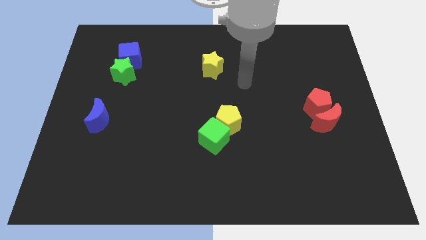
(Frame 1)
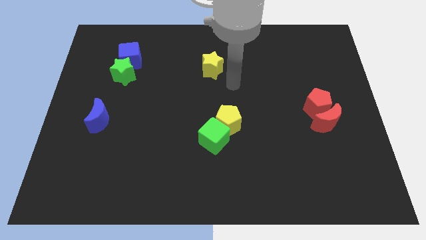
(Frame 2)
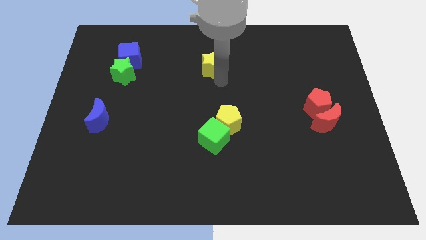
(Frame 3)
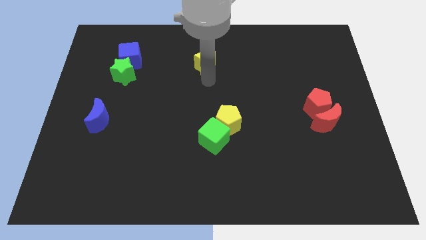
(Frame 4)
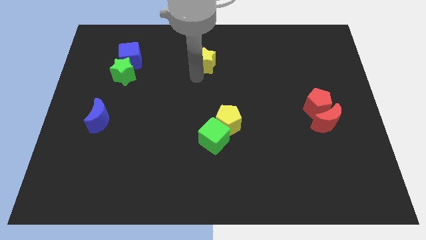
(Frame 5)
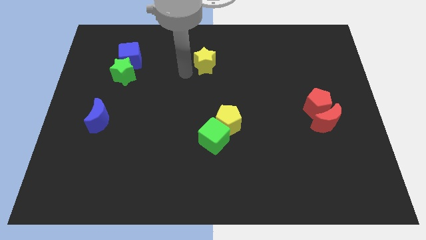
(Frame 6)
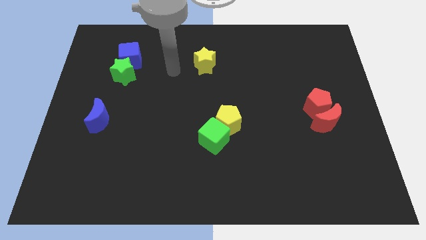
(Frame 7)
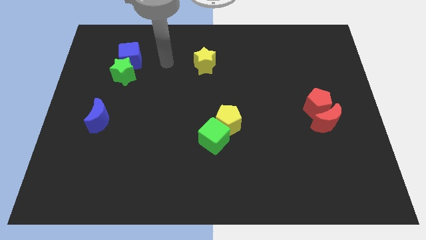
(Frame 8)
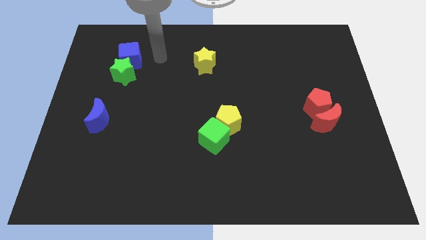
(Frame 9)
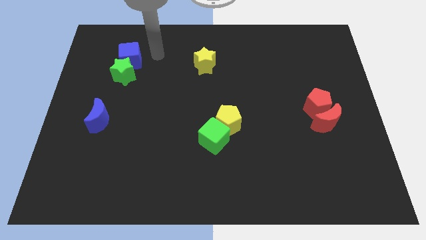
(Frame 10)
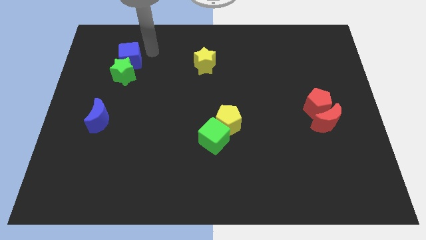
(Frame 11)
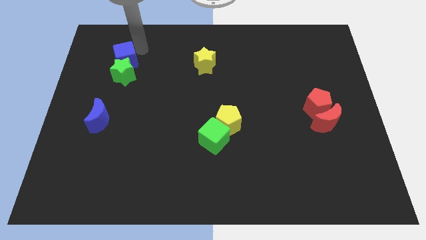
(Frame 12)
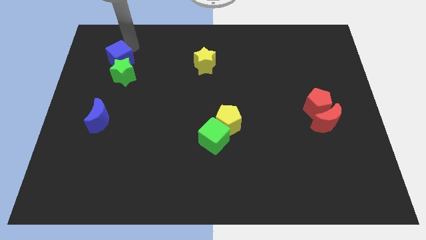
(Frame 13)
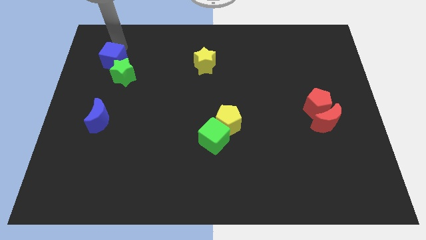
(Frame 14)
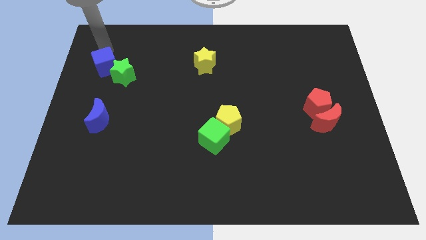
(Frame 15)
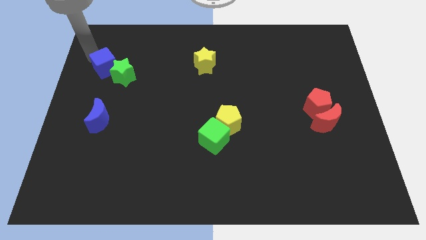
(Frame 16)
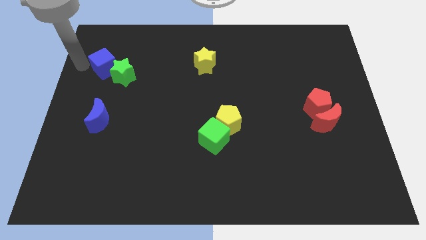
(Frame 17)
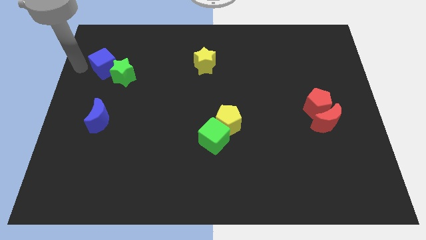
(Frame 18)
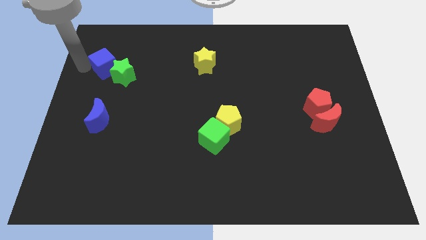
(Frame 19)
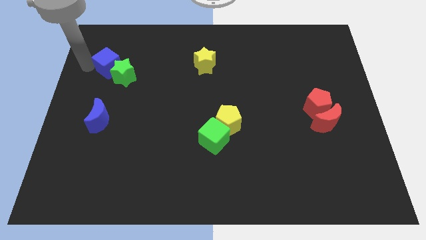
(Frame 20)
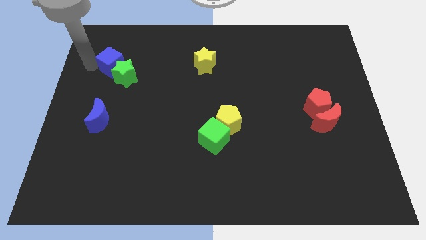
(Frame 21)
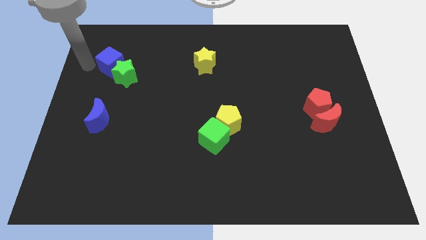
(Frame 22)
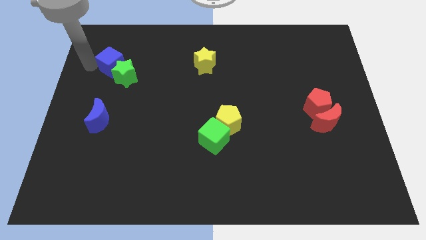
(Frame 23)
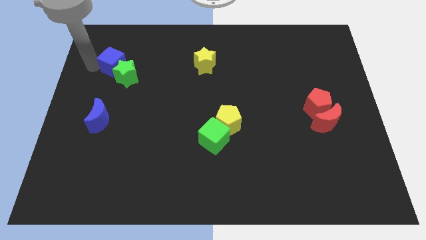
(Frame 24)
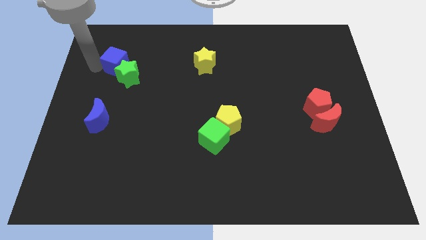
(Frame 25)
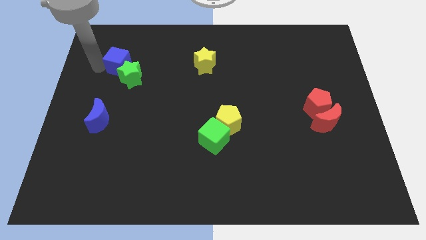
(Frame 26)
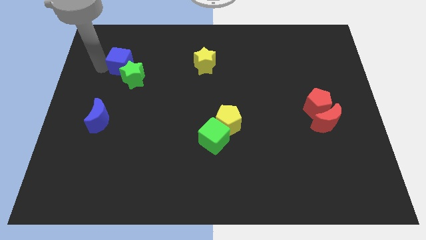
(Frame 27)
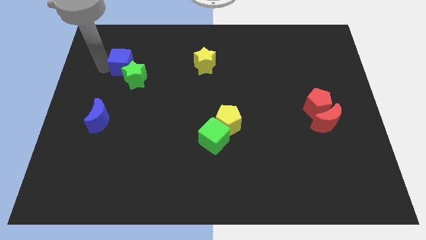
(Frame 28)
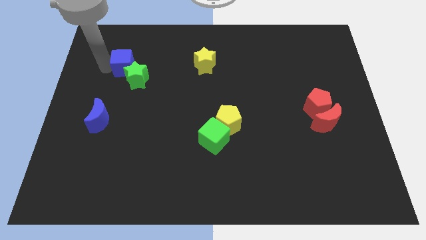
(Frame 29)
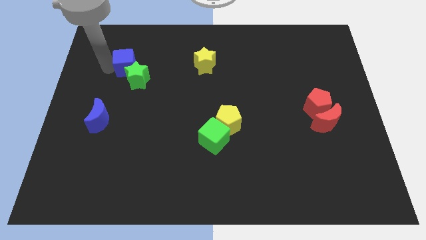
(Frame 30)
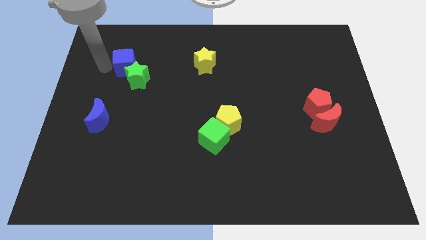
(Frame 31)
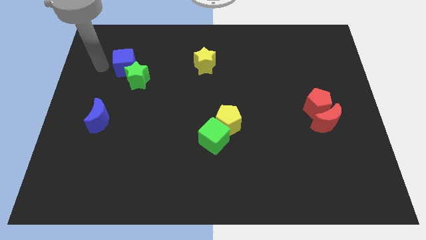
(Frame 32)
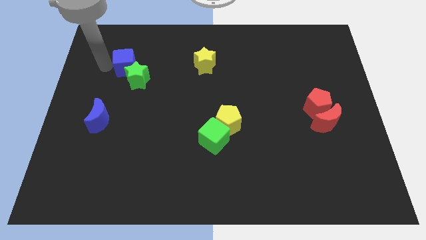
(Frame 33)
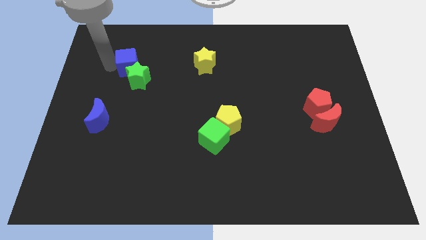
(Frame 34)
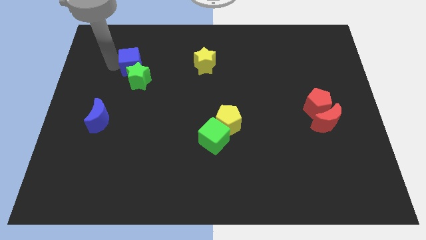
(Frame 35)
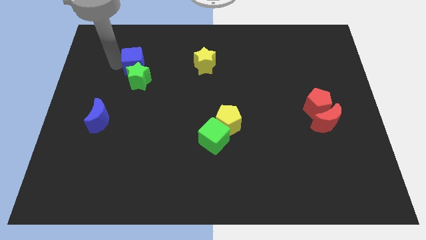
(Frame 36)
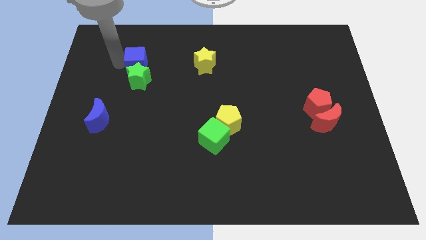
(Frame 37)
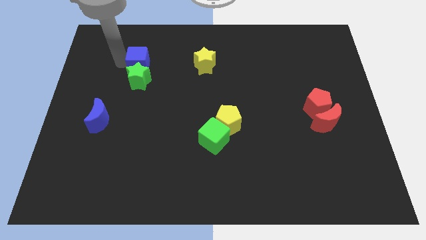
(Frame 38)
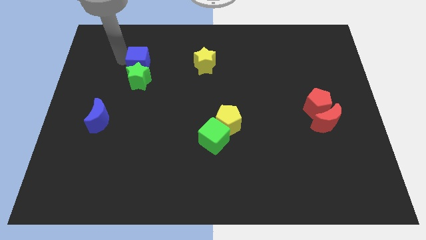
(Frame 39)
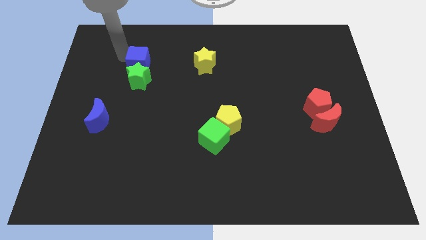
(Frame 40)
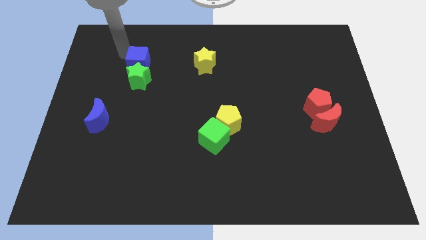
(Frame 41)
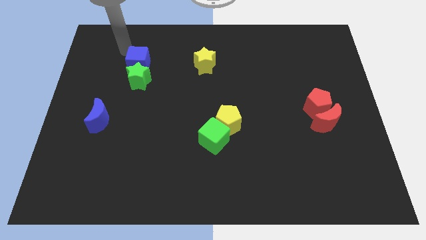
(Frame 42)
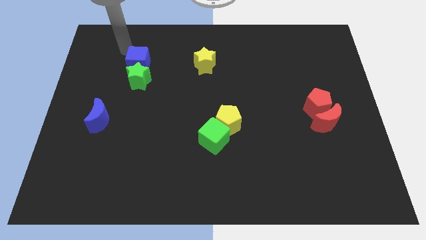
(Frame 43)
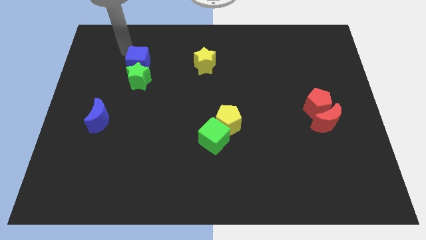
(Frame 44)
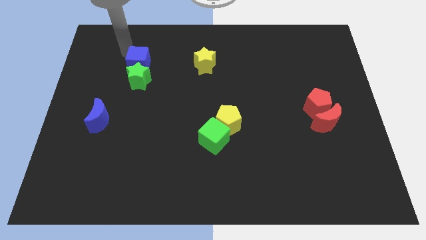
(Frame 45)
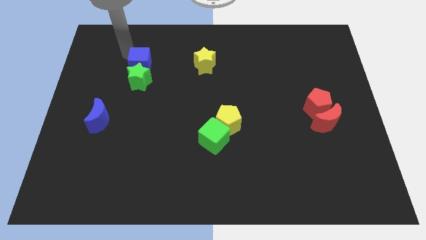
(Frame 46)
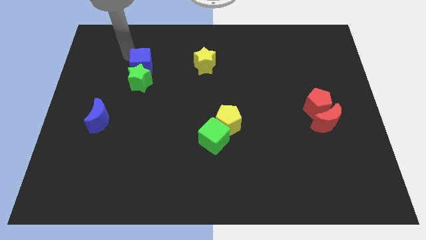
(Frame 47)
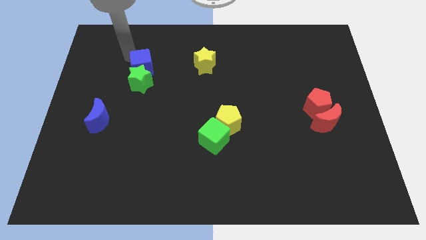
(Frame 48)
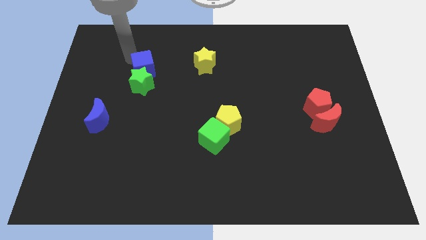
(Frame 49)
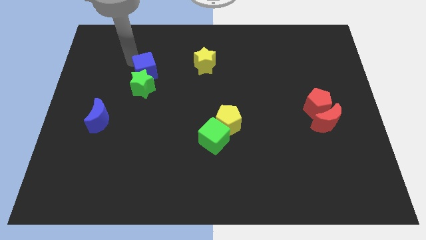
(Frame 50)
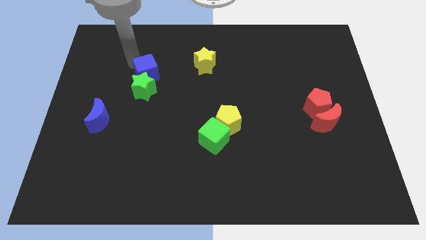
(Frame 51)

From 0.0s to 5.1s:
move the blue cube downwards and right diagonally a bit

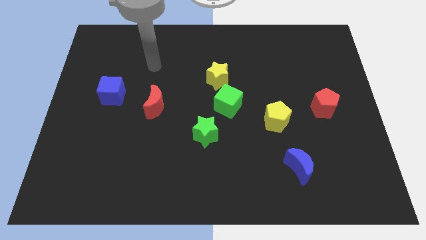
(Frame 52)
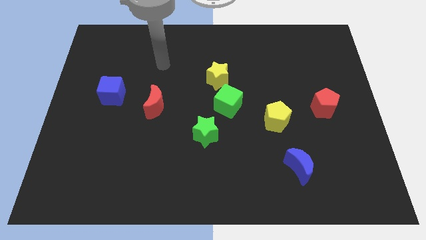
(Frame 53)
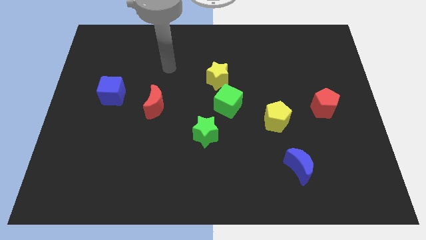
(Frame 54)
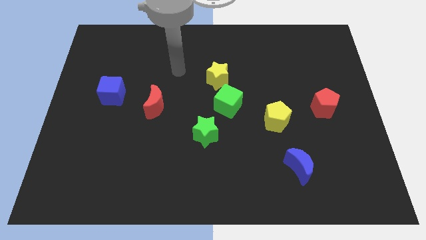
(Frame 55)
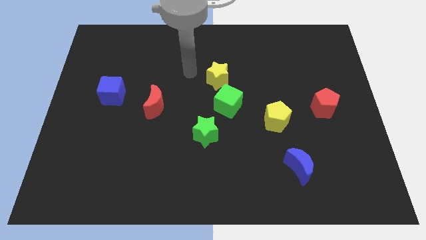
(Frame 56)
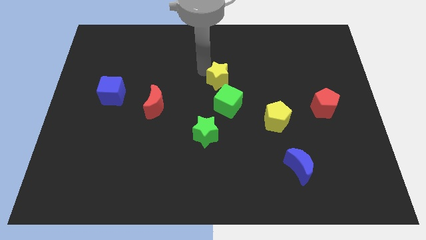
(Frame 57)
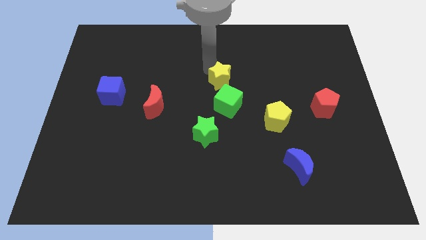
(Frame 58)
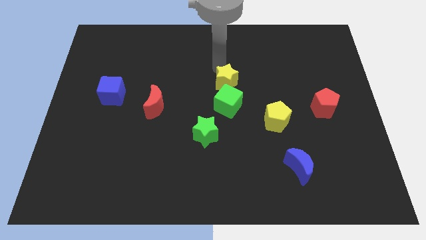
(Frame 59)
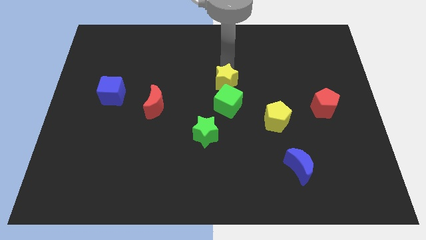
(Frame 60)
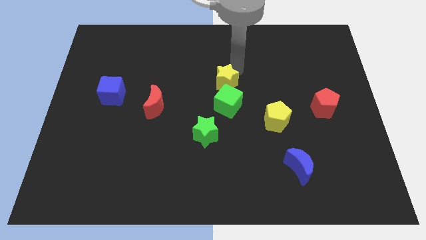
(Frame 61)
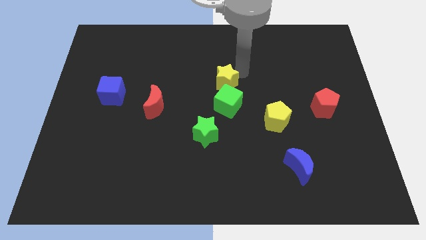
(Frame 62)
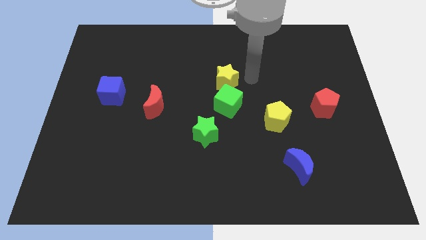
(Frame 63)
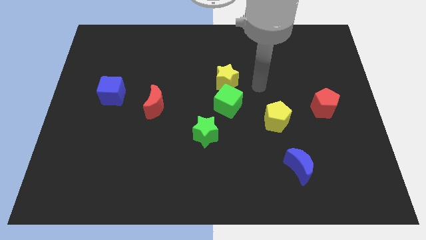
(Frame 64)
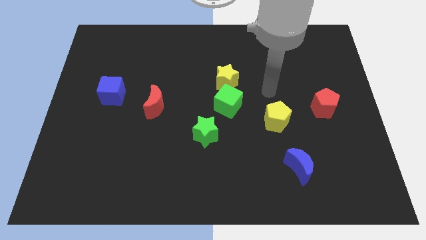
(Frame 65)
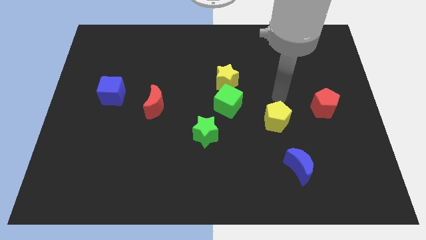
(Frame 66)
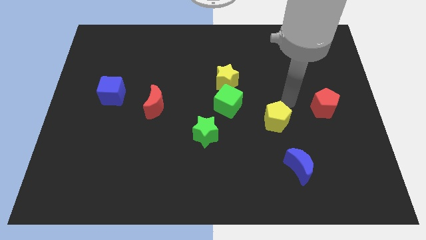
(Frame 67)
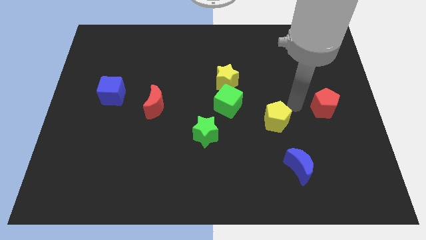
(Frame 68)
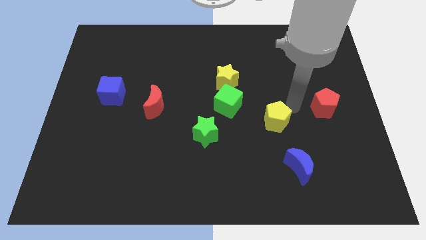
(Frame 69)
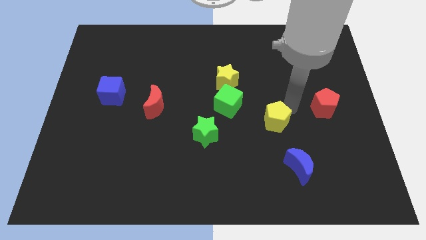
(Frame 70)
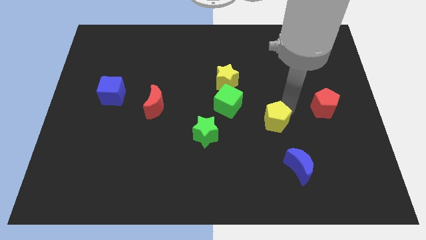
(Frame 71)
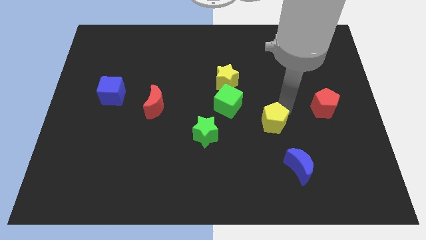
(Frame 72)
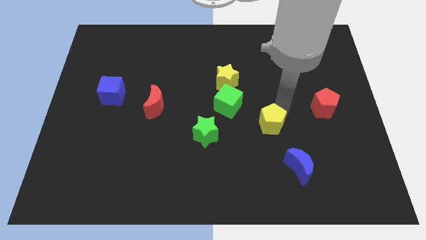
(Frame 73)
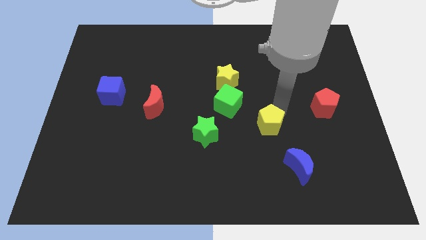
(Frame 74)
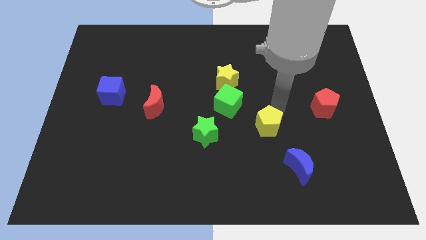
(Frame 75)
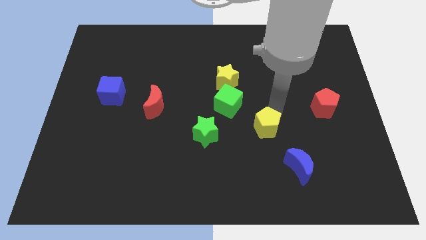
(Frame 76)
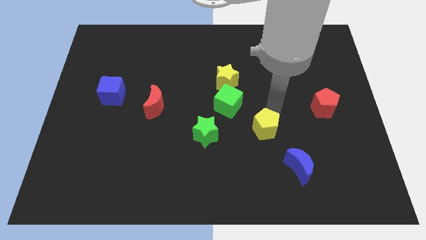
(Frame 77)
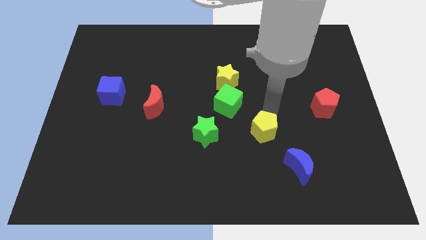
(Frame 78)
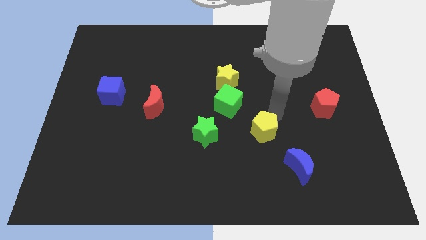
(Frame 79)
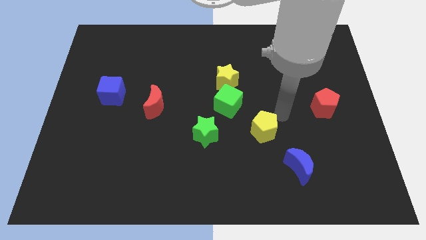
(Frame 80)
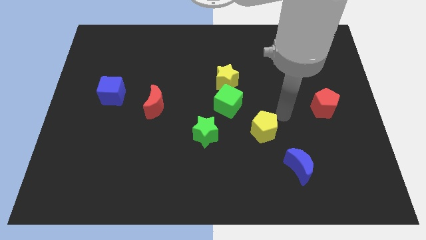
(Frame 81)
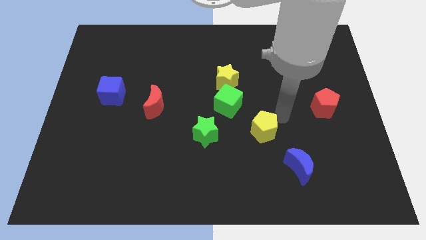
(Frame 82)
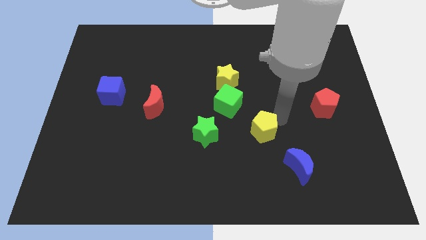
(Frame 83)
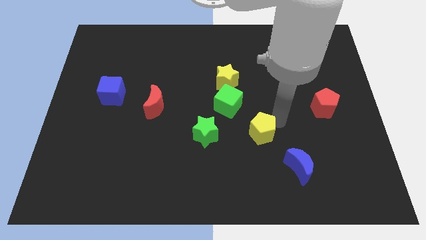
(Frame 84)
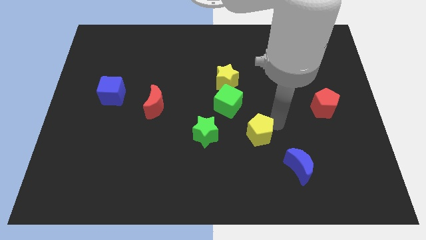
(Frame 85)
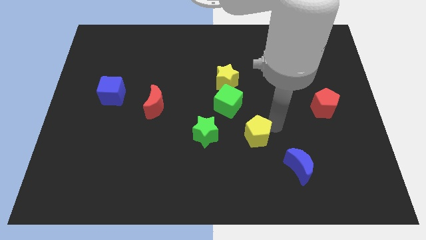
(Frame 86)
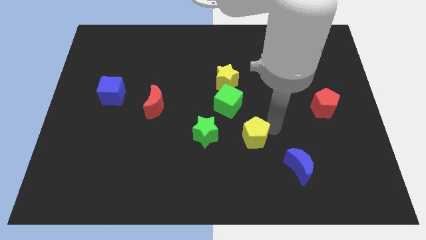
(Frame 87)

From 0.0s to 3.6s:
slide the yellow pentagon down and to the left diagonally a bit
